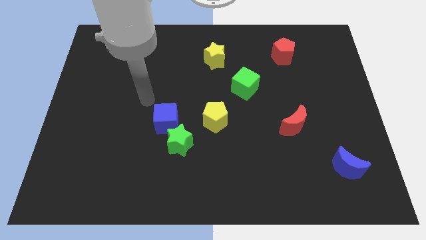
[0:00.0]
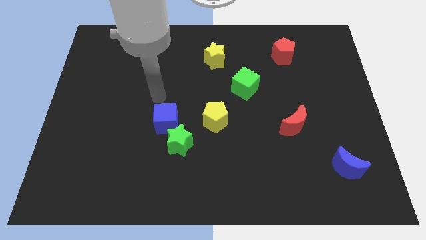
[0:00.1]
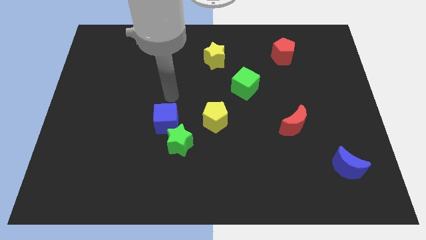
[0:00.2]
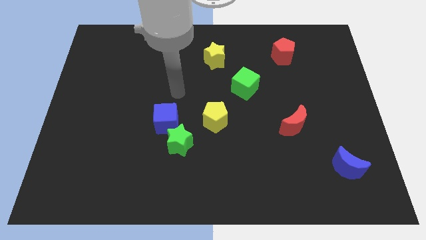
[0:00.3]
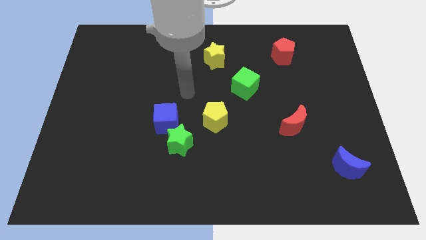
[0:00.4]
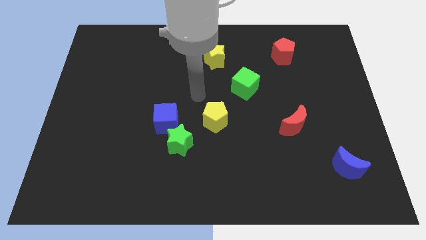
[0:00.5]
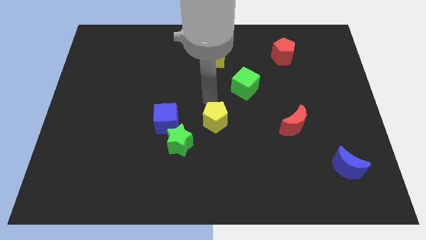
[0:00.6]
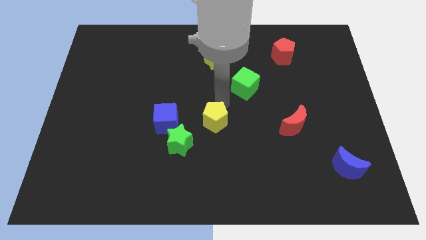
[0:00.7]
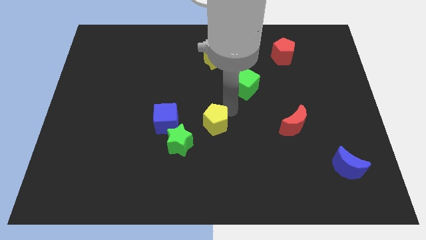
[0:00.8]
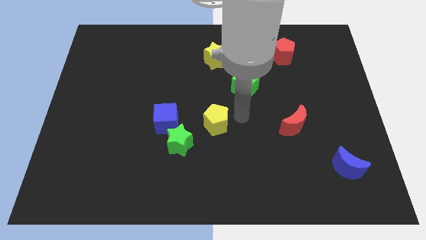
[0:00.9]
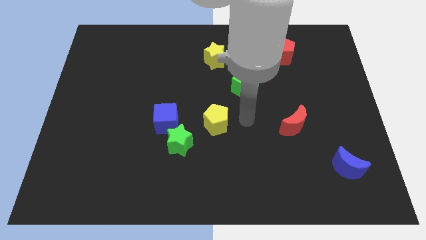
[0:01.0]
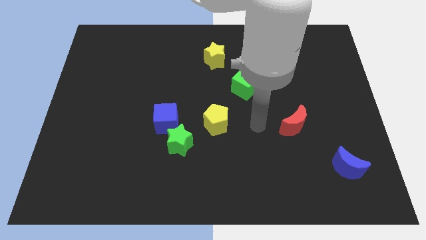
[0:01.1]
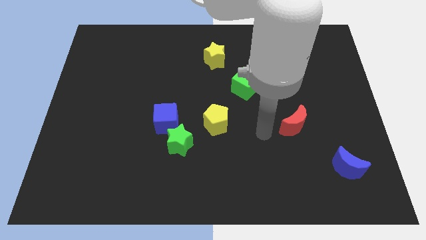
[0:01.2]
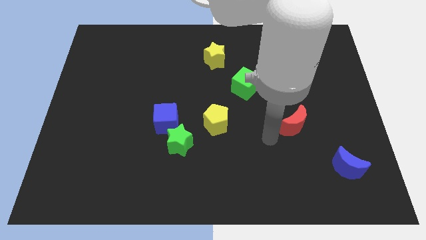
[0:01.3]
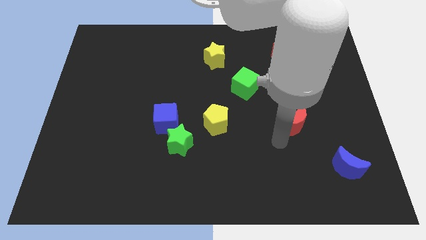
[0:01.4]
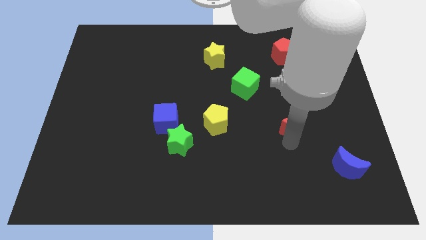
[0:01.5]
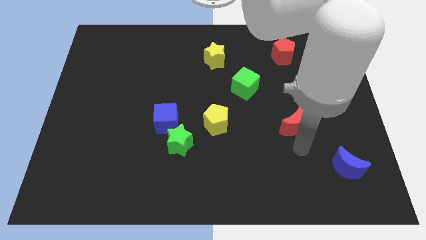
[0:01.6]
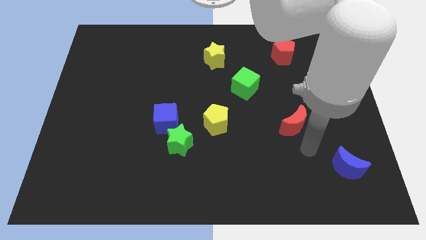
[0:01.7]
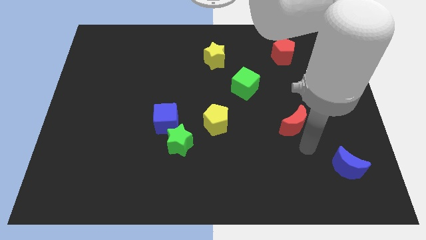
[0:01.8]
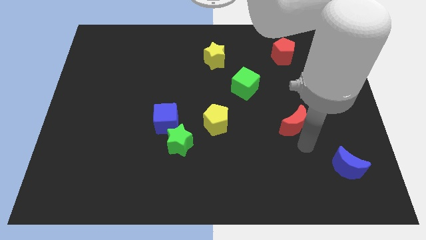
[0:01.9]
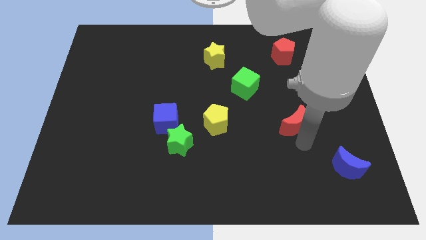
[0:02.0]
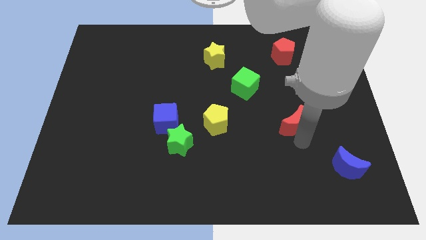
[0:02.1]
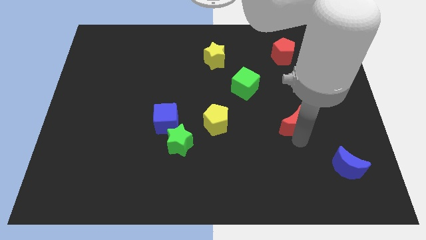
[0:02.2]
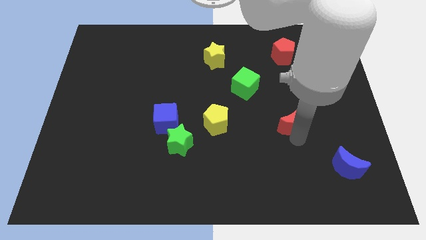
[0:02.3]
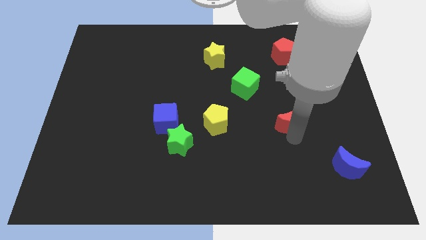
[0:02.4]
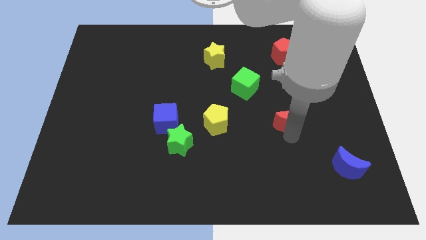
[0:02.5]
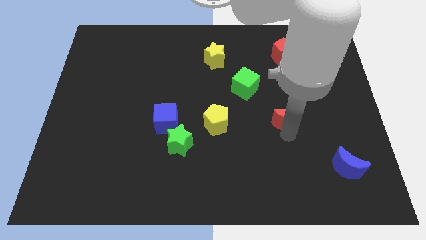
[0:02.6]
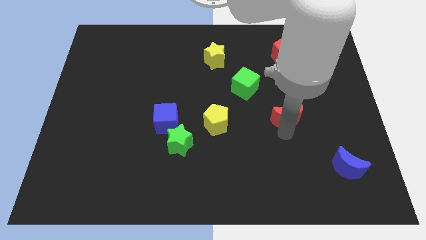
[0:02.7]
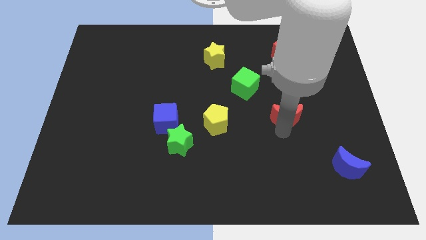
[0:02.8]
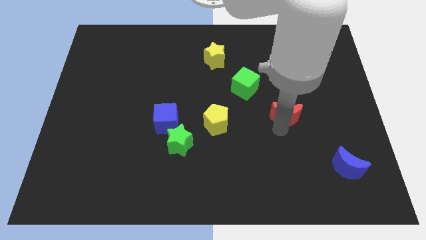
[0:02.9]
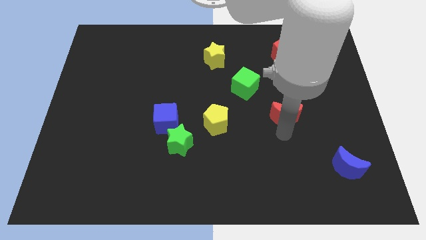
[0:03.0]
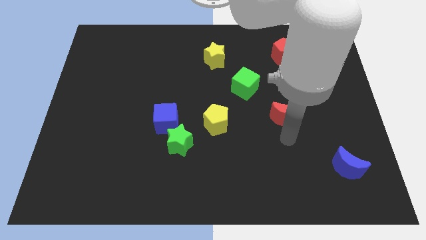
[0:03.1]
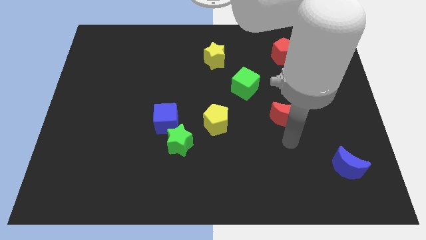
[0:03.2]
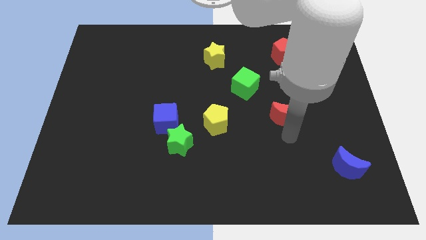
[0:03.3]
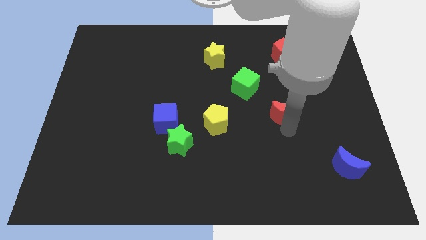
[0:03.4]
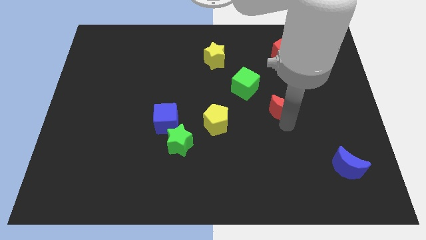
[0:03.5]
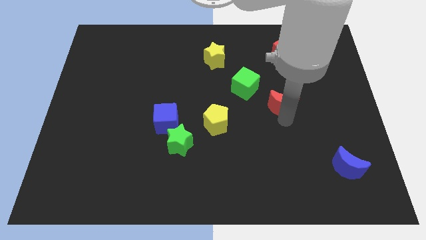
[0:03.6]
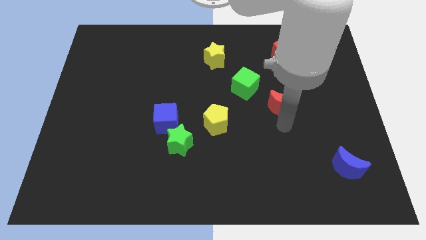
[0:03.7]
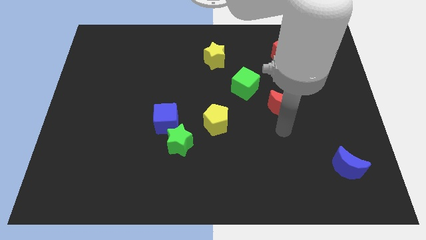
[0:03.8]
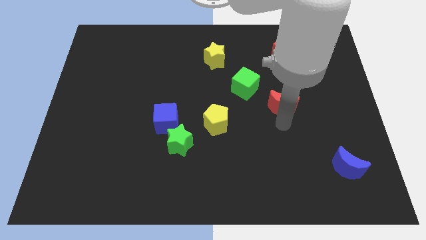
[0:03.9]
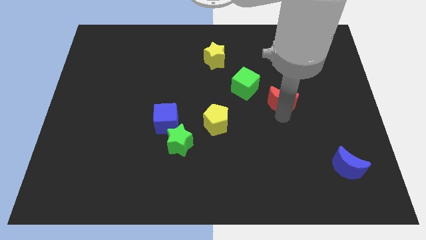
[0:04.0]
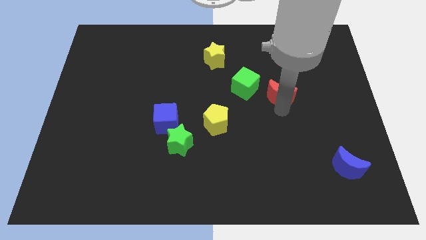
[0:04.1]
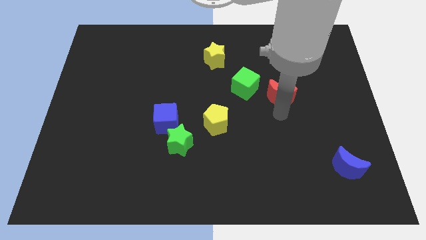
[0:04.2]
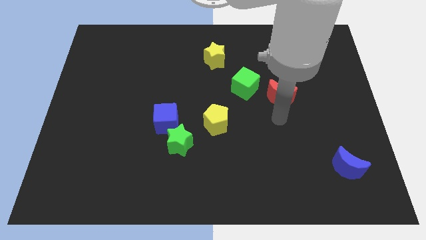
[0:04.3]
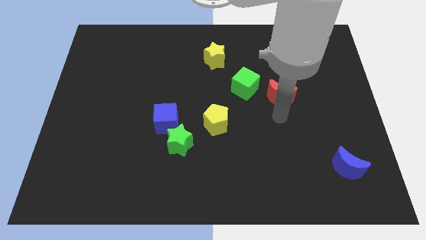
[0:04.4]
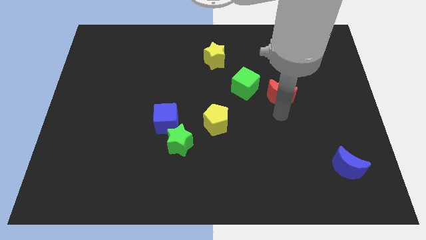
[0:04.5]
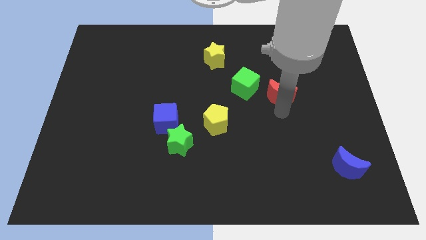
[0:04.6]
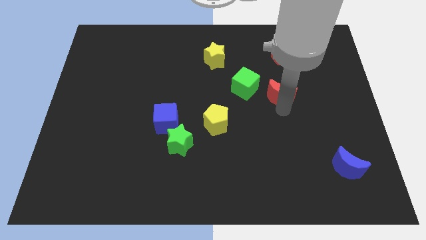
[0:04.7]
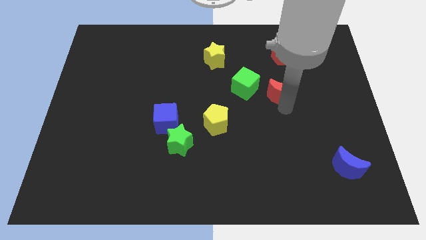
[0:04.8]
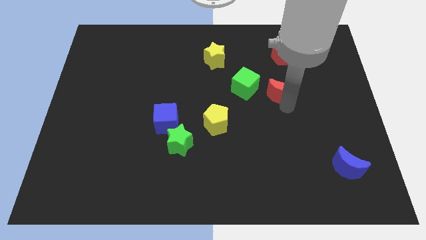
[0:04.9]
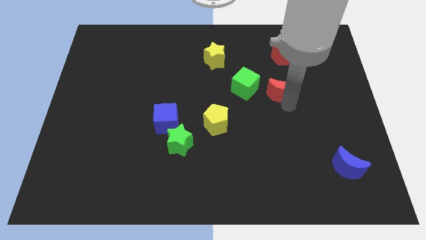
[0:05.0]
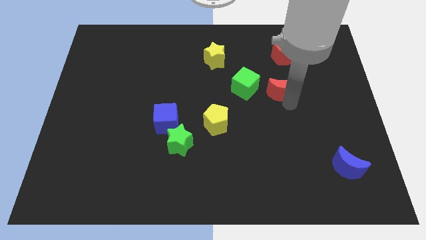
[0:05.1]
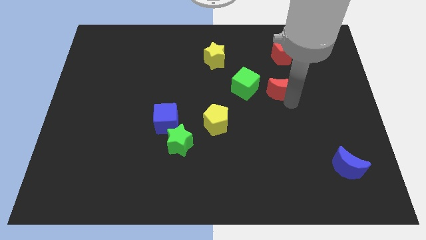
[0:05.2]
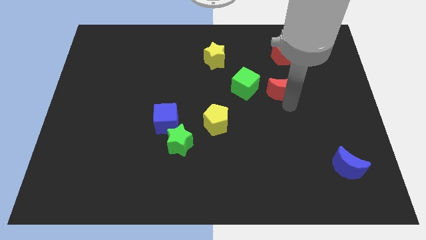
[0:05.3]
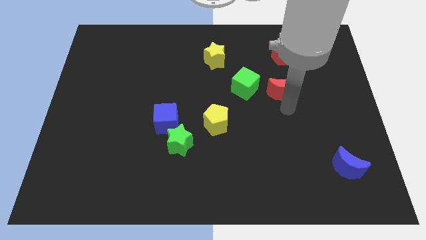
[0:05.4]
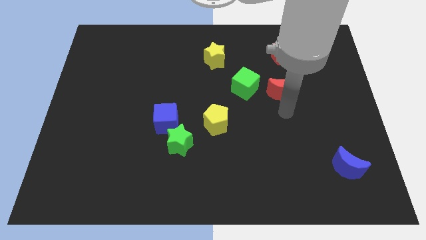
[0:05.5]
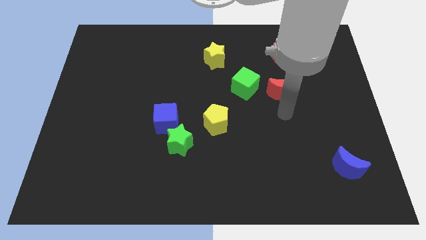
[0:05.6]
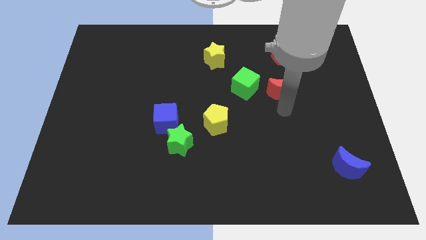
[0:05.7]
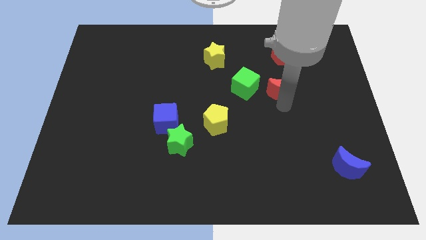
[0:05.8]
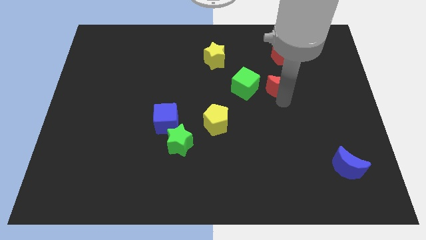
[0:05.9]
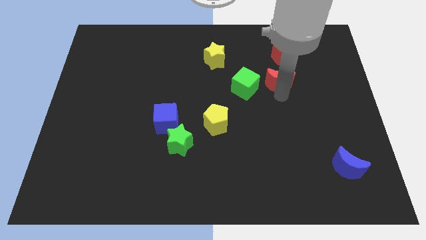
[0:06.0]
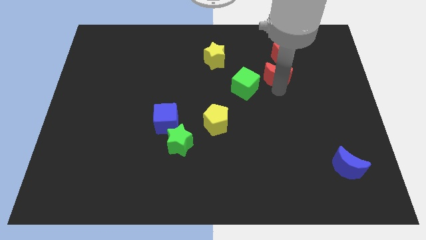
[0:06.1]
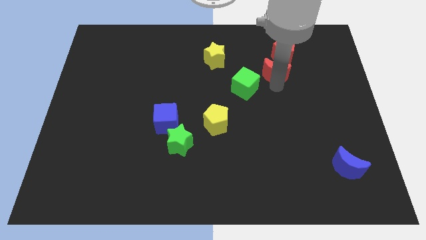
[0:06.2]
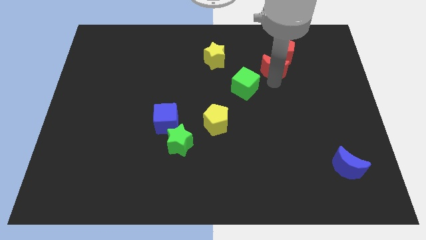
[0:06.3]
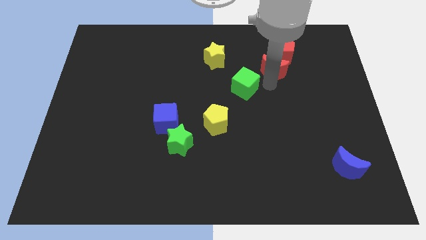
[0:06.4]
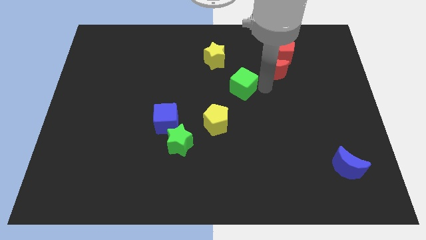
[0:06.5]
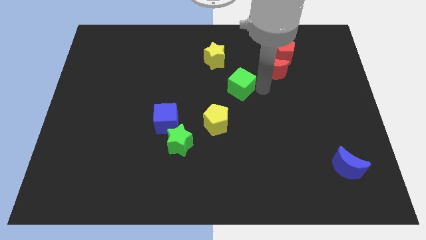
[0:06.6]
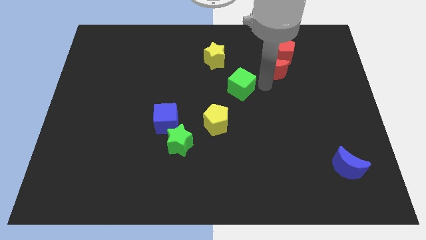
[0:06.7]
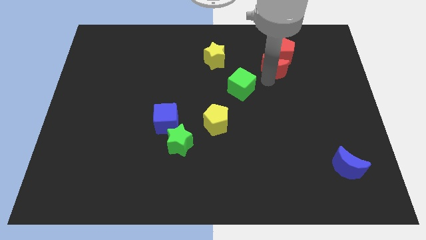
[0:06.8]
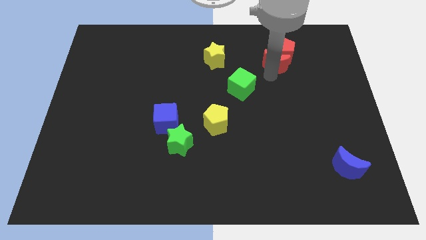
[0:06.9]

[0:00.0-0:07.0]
put the red moon to the red pentagon
